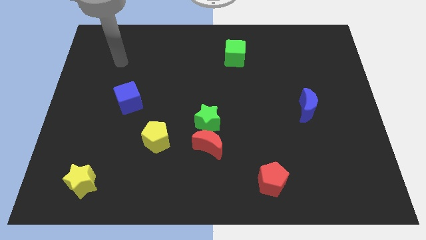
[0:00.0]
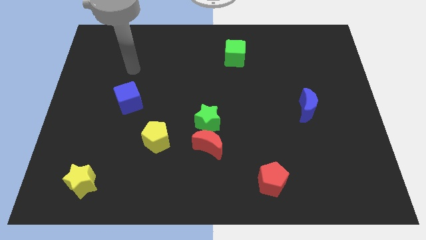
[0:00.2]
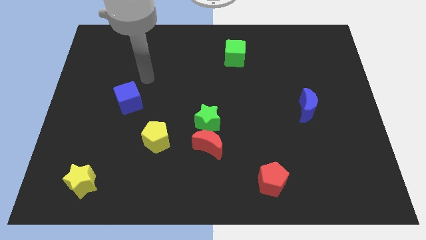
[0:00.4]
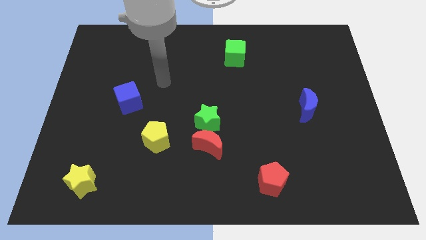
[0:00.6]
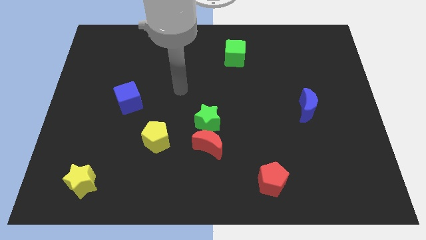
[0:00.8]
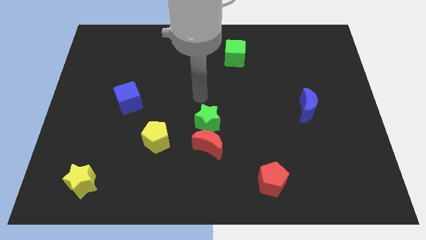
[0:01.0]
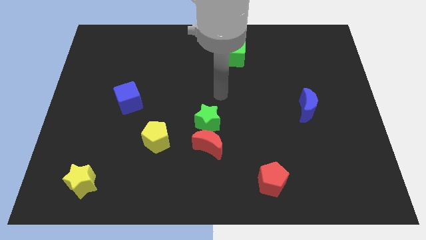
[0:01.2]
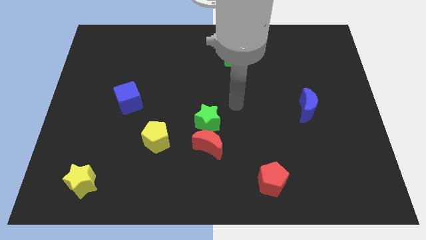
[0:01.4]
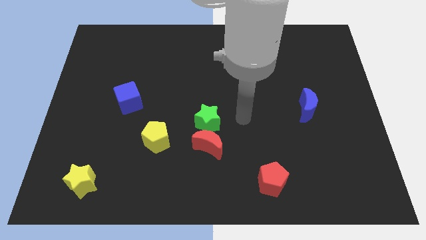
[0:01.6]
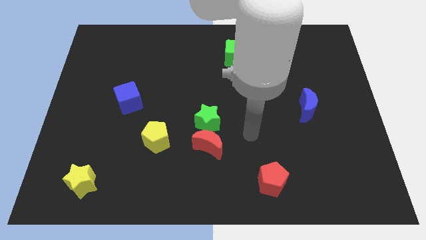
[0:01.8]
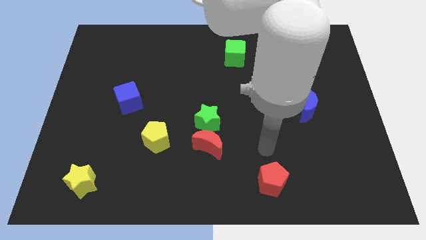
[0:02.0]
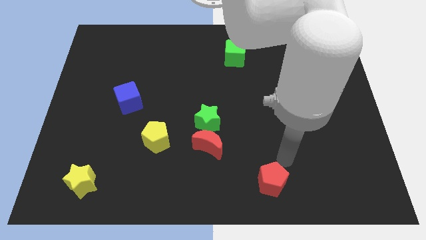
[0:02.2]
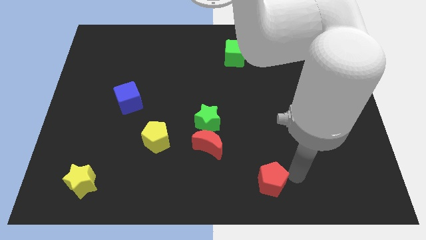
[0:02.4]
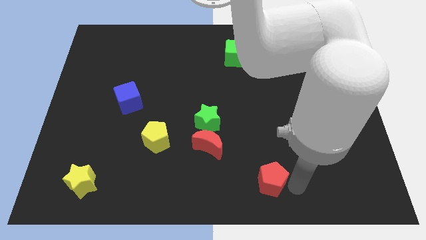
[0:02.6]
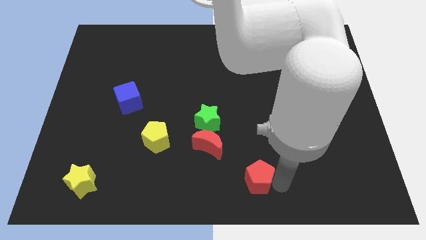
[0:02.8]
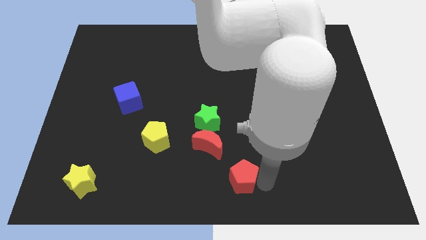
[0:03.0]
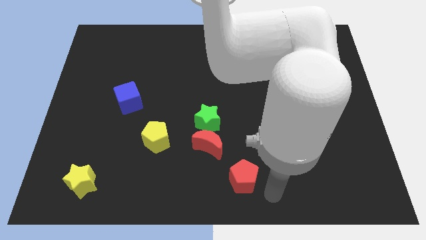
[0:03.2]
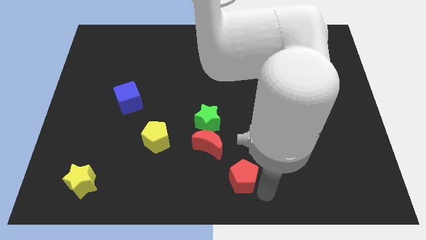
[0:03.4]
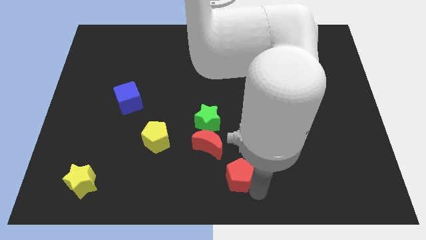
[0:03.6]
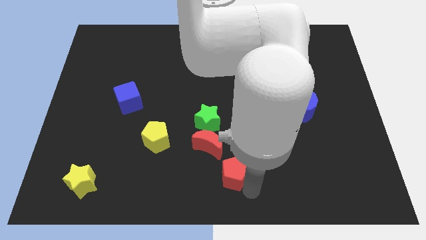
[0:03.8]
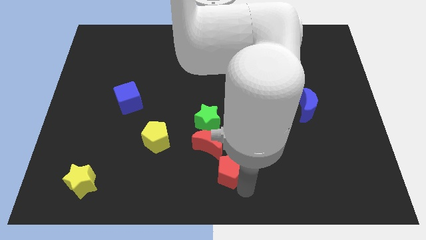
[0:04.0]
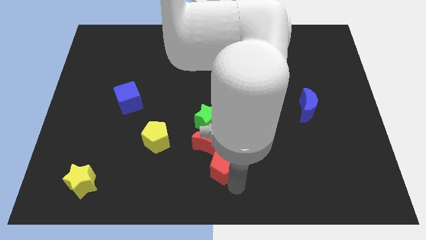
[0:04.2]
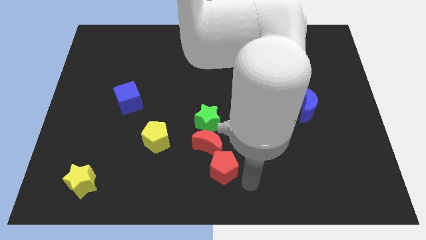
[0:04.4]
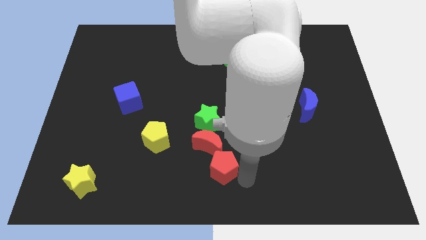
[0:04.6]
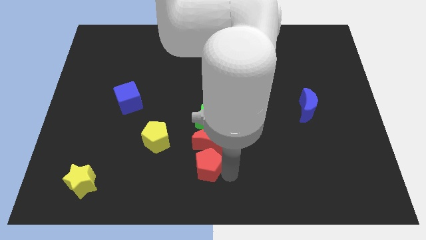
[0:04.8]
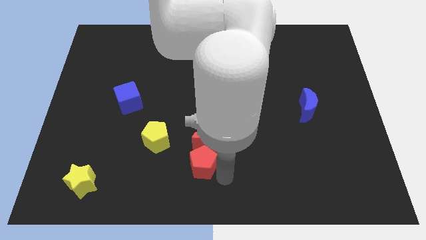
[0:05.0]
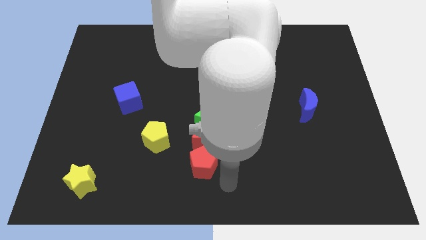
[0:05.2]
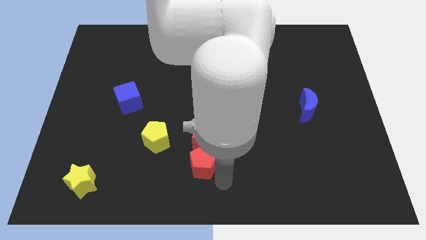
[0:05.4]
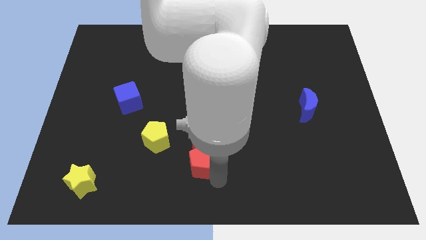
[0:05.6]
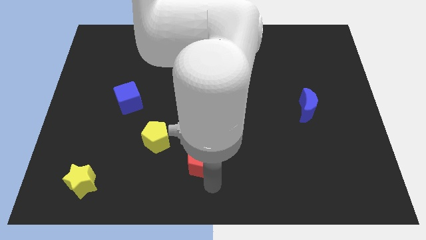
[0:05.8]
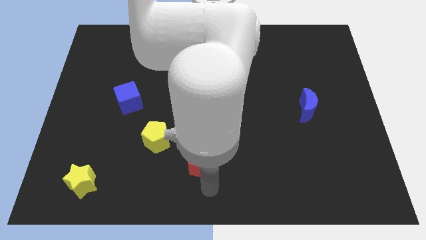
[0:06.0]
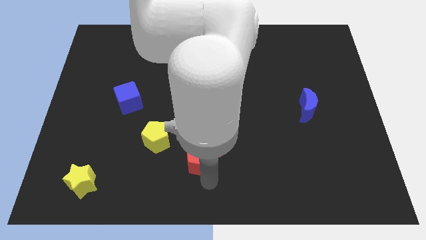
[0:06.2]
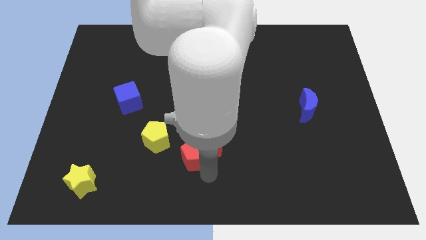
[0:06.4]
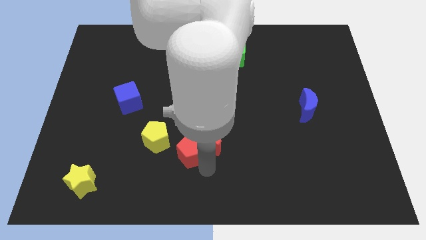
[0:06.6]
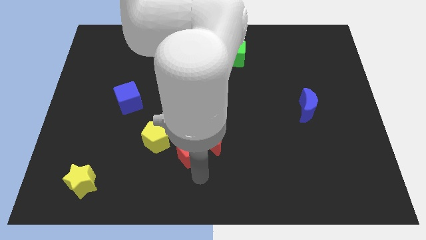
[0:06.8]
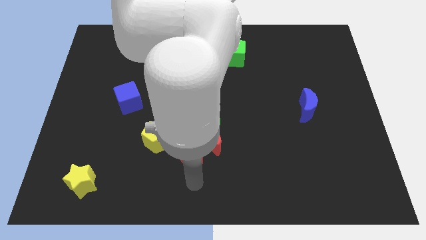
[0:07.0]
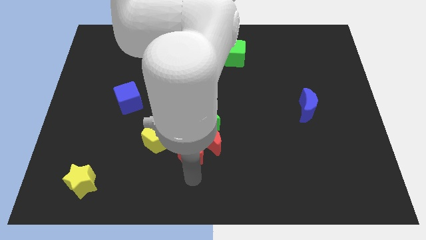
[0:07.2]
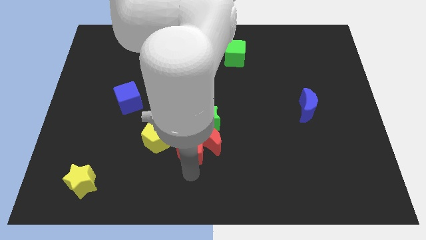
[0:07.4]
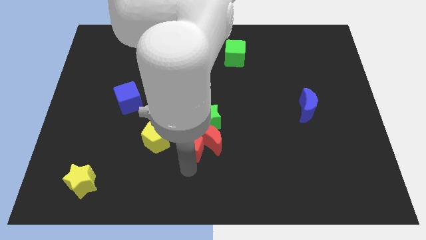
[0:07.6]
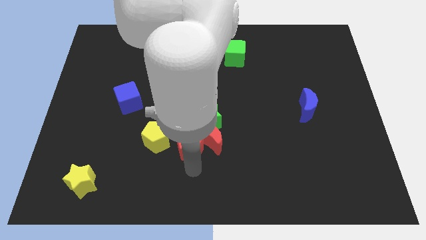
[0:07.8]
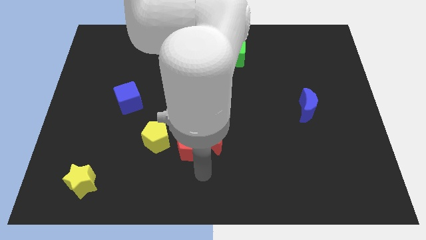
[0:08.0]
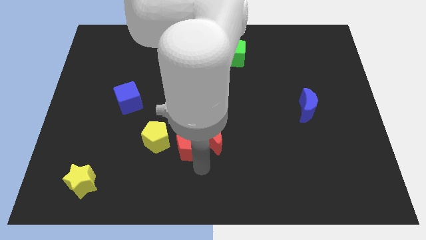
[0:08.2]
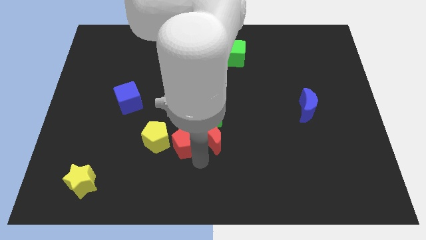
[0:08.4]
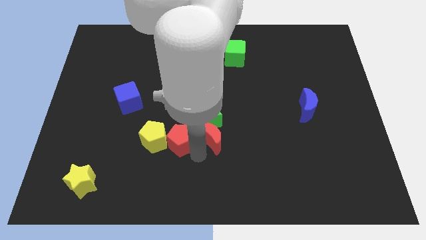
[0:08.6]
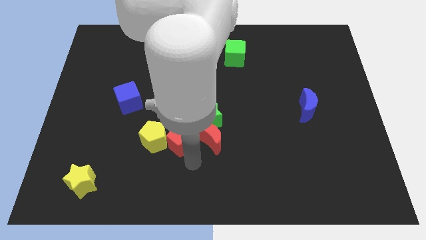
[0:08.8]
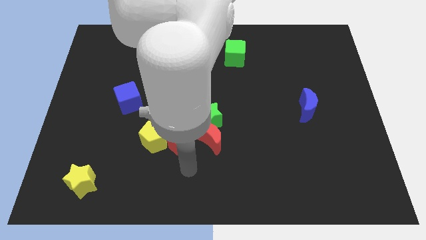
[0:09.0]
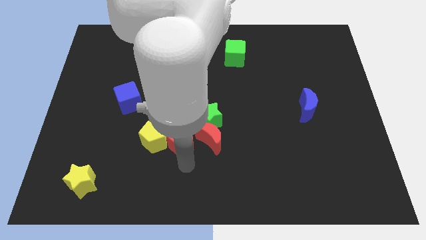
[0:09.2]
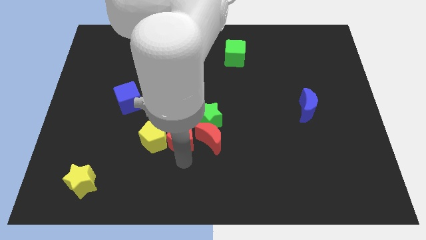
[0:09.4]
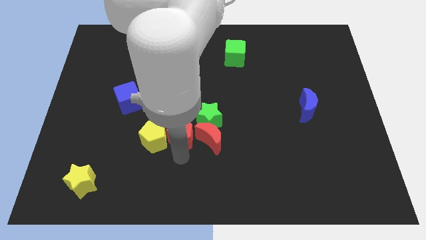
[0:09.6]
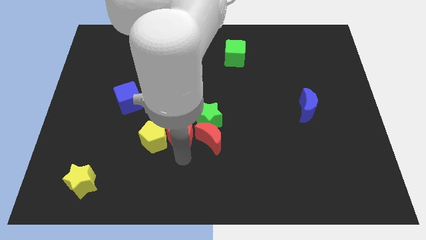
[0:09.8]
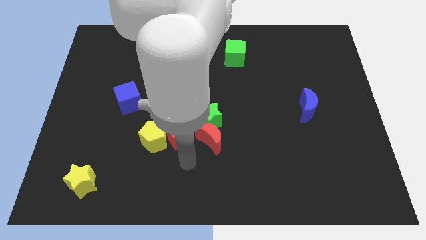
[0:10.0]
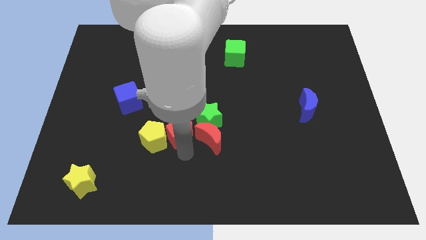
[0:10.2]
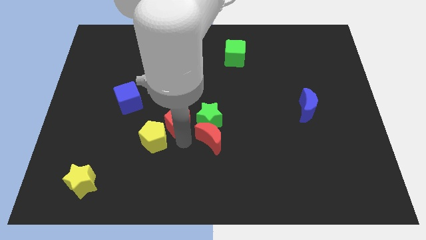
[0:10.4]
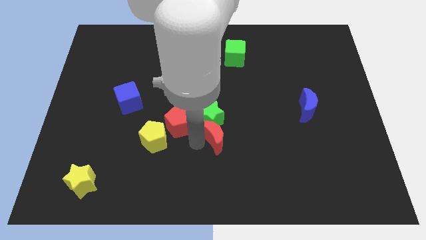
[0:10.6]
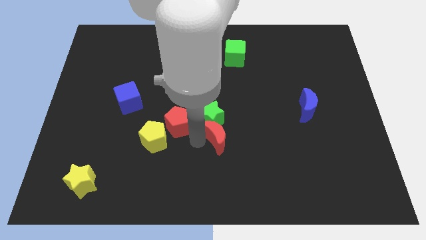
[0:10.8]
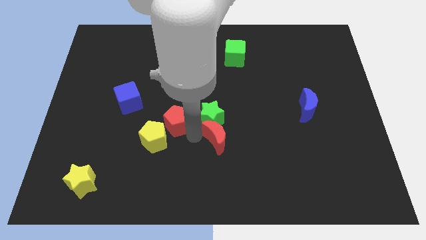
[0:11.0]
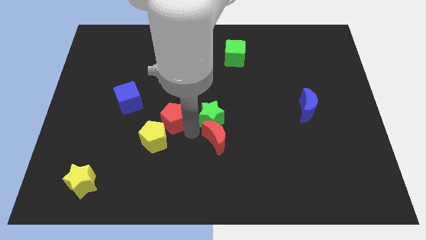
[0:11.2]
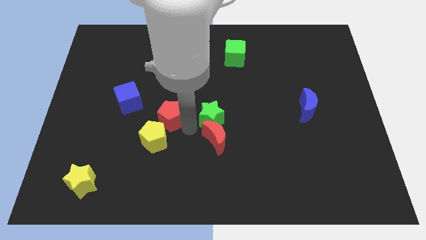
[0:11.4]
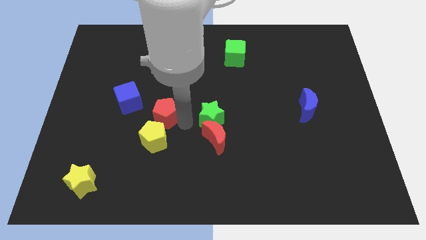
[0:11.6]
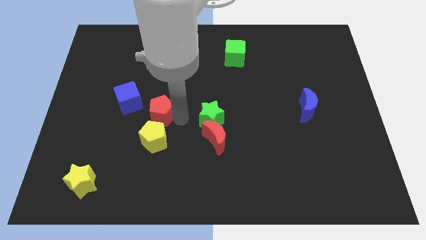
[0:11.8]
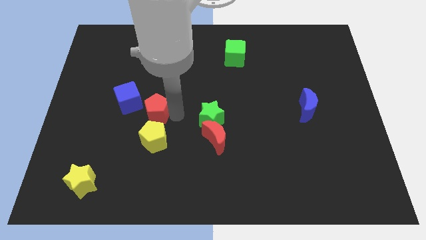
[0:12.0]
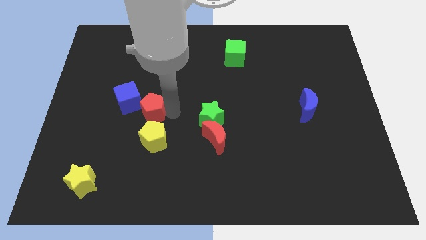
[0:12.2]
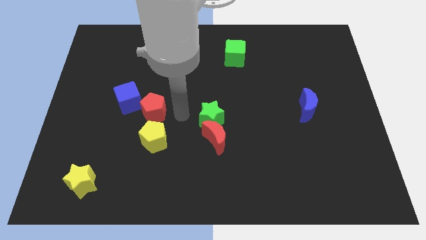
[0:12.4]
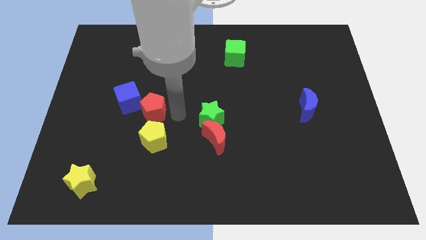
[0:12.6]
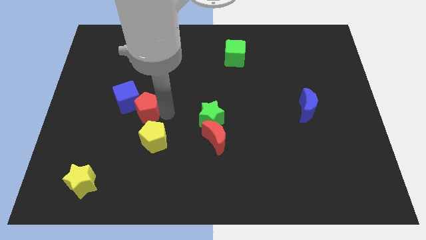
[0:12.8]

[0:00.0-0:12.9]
slide the red pentagon to the blue cube

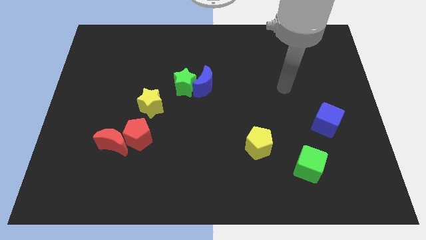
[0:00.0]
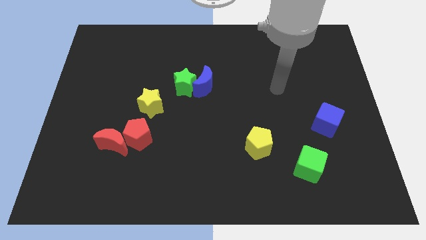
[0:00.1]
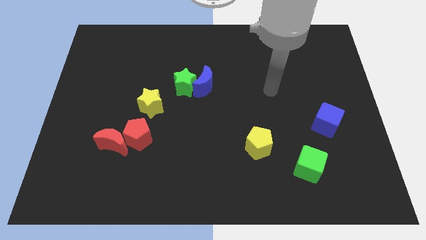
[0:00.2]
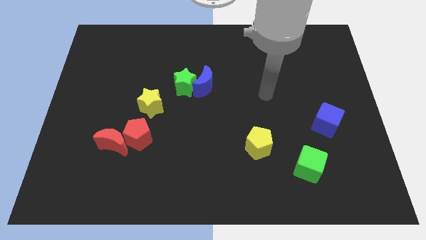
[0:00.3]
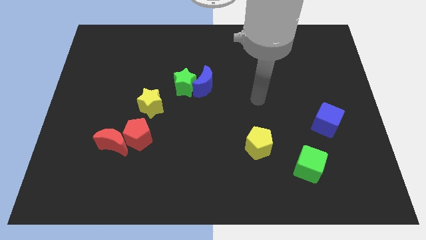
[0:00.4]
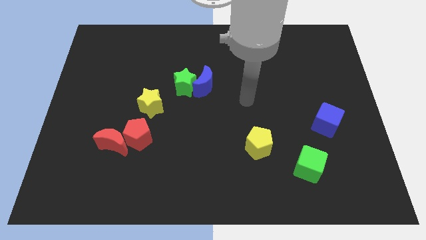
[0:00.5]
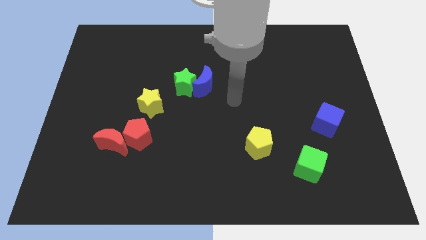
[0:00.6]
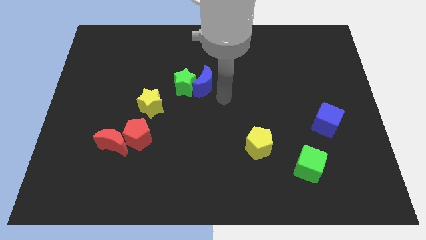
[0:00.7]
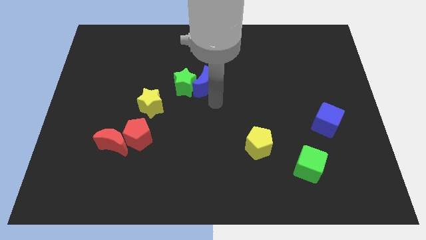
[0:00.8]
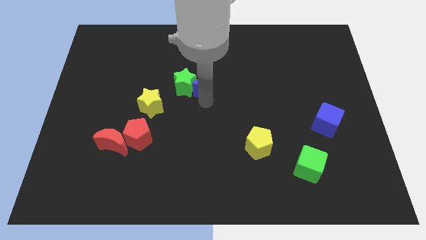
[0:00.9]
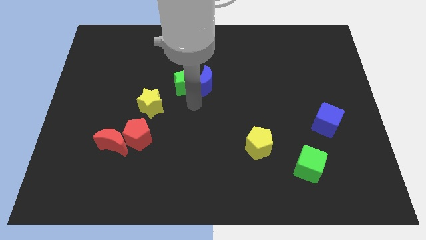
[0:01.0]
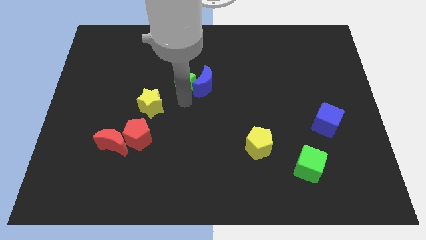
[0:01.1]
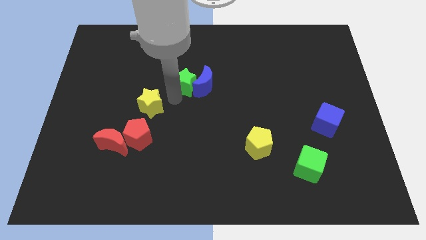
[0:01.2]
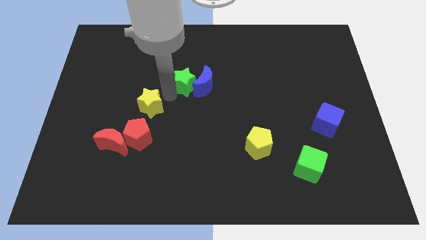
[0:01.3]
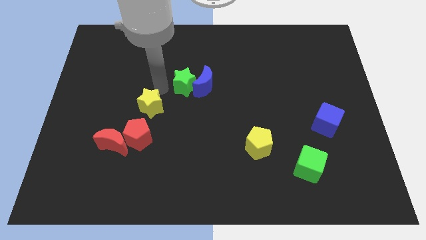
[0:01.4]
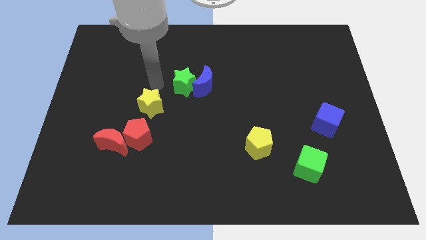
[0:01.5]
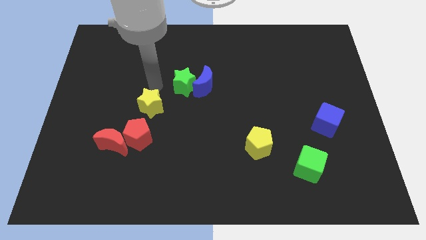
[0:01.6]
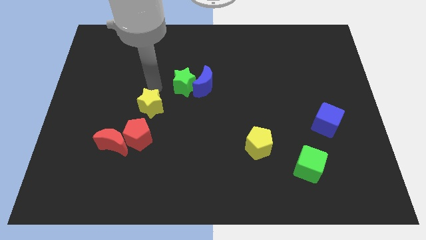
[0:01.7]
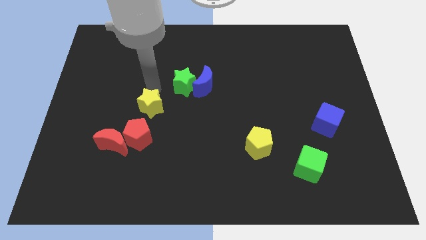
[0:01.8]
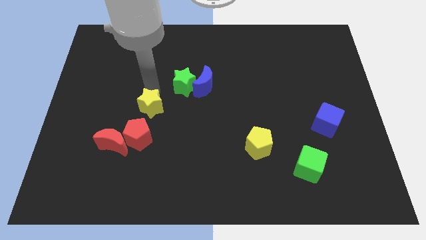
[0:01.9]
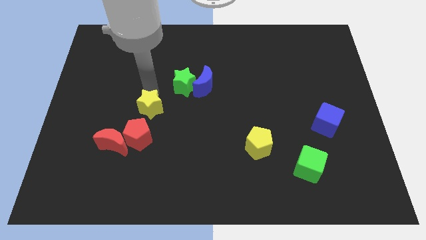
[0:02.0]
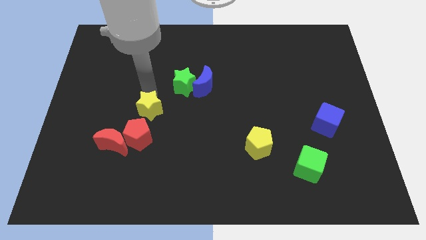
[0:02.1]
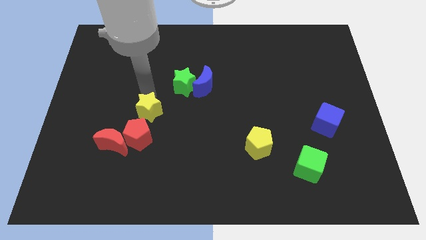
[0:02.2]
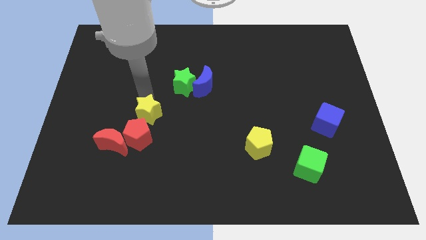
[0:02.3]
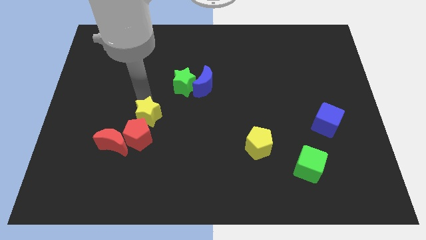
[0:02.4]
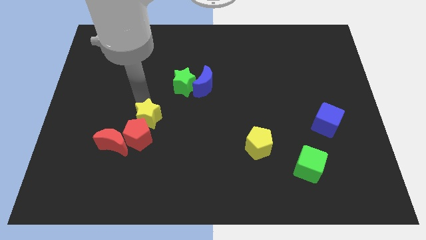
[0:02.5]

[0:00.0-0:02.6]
slide the yellow star to the red pentagon
